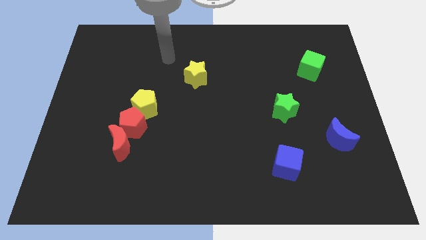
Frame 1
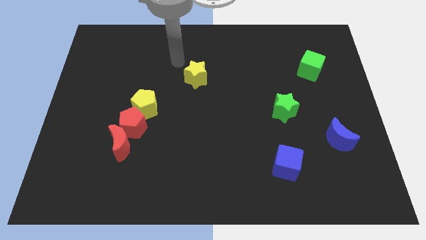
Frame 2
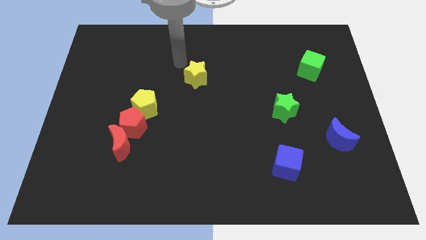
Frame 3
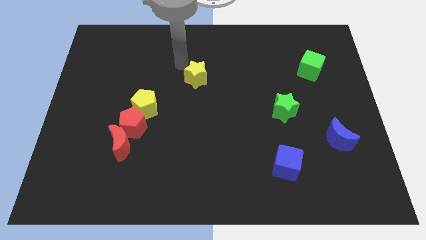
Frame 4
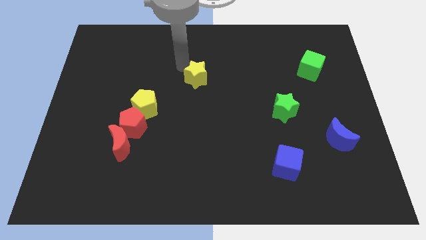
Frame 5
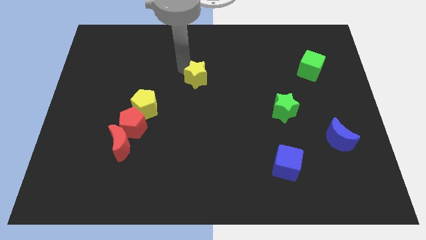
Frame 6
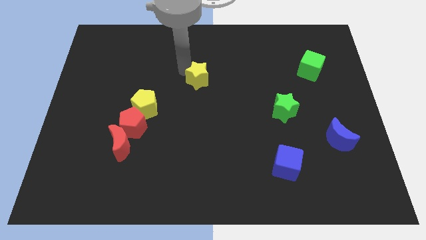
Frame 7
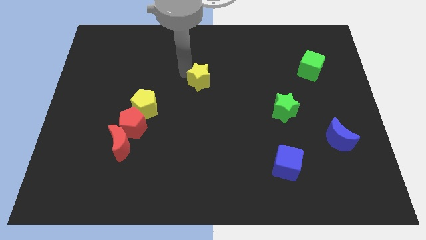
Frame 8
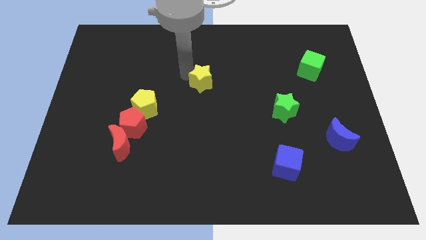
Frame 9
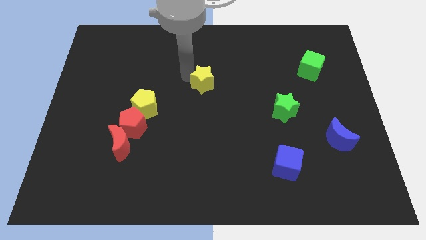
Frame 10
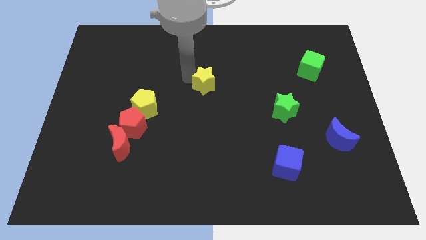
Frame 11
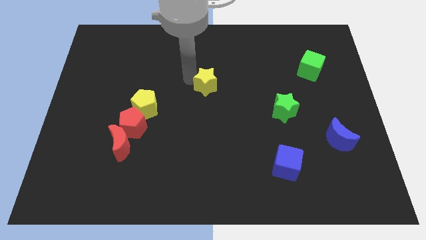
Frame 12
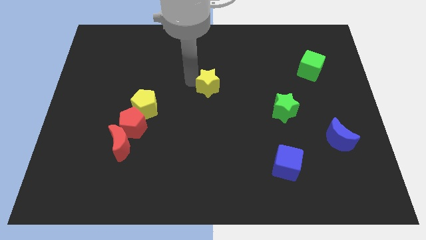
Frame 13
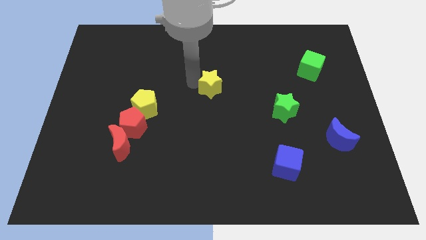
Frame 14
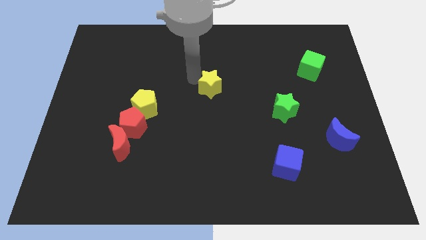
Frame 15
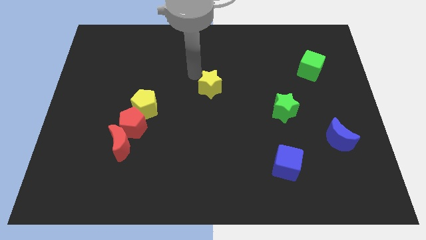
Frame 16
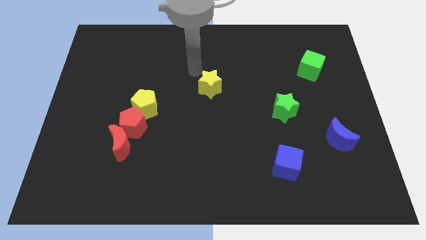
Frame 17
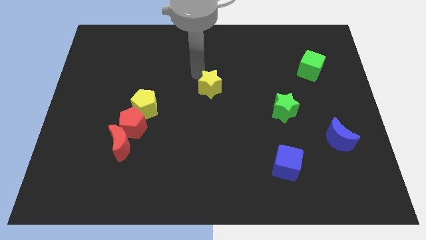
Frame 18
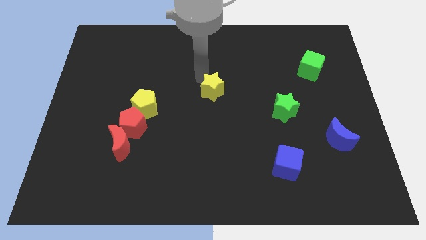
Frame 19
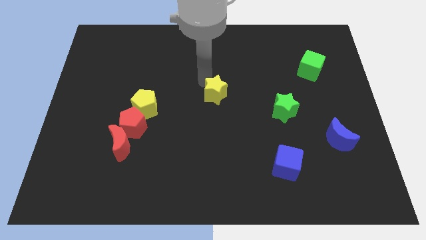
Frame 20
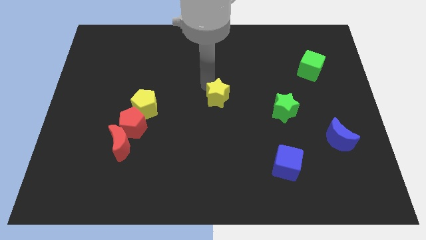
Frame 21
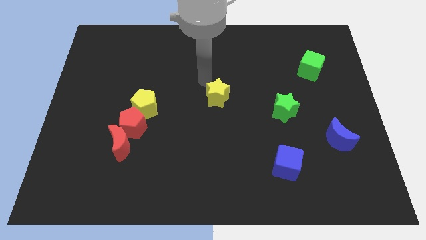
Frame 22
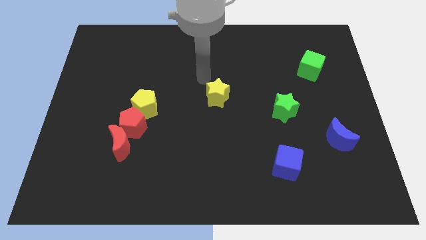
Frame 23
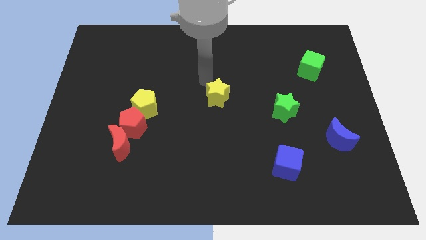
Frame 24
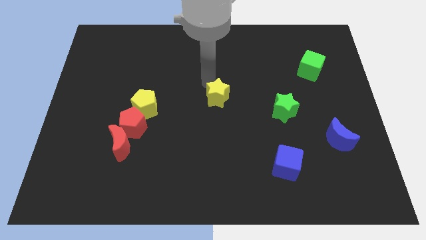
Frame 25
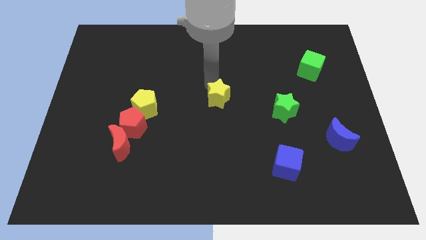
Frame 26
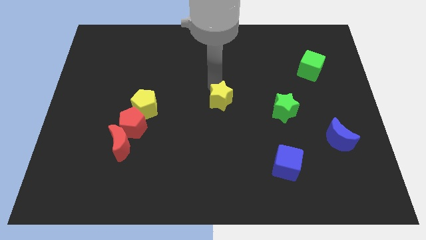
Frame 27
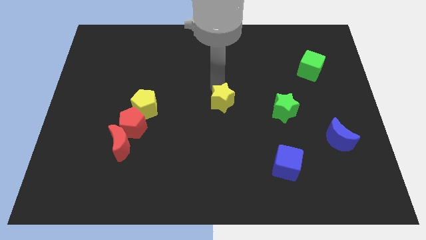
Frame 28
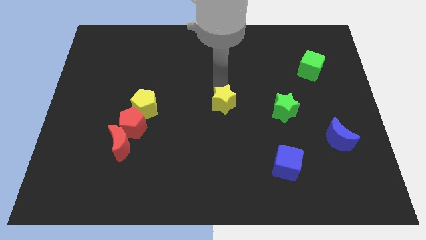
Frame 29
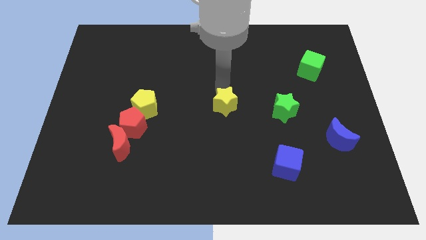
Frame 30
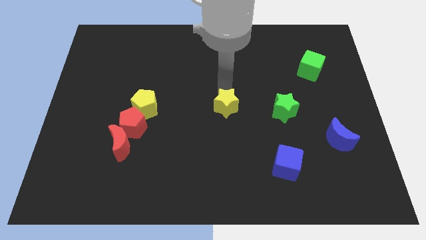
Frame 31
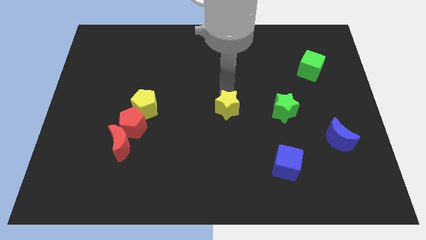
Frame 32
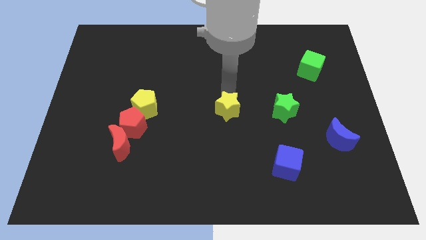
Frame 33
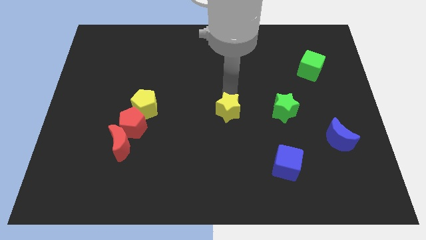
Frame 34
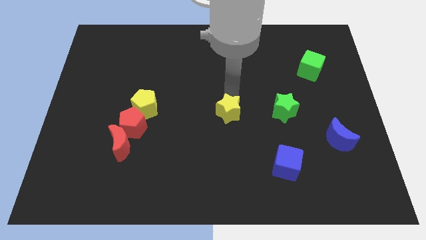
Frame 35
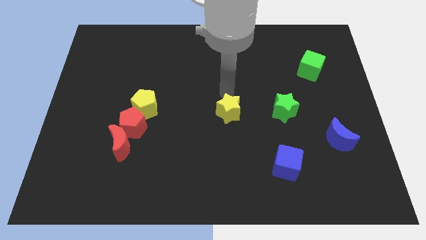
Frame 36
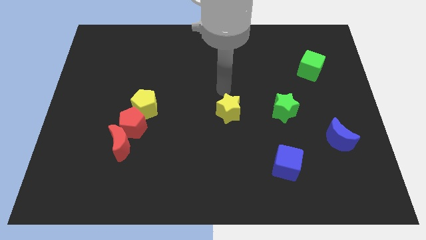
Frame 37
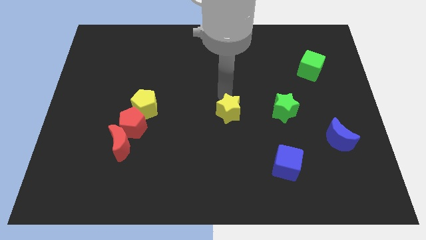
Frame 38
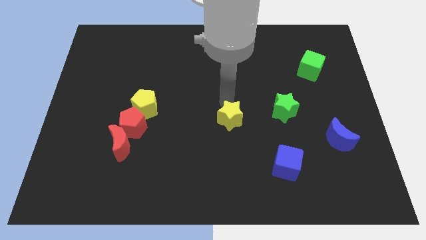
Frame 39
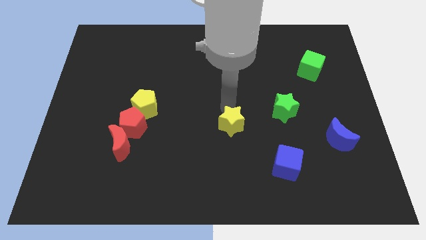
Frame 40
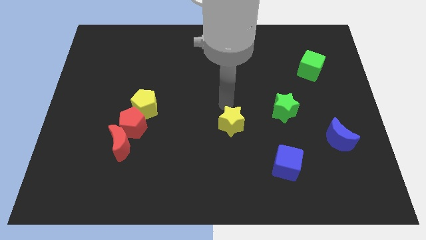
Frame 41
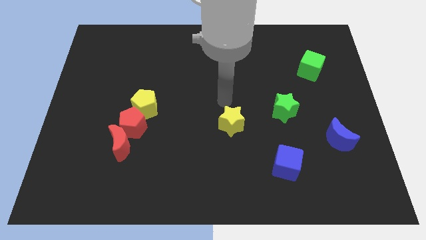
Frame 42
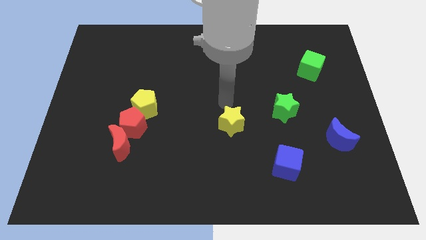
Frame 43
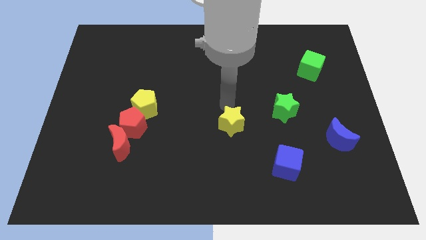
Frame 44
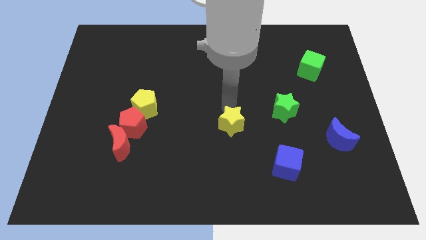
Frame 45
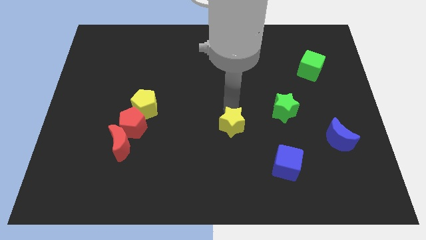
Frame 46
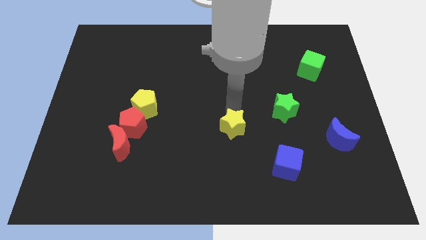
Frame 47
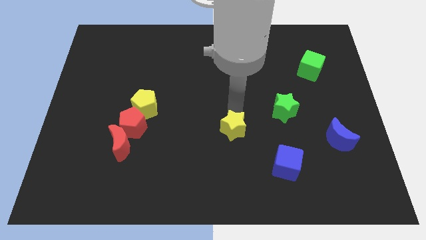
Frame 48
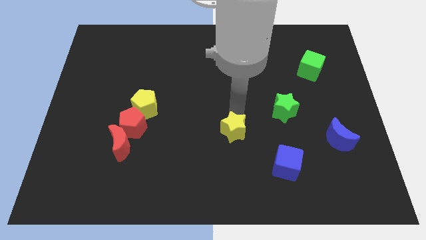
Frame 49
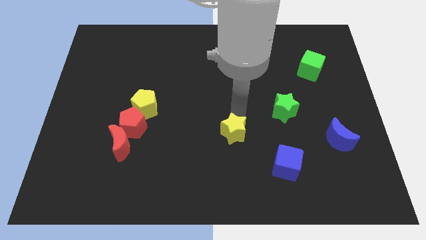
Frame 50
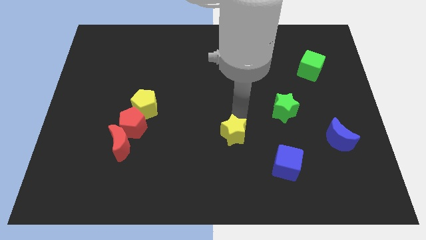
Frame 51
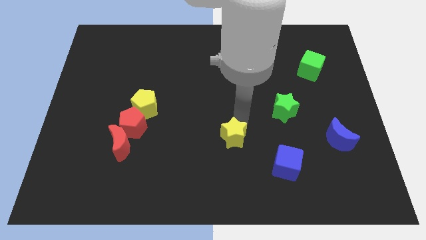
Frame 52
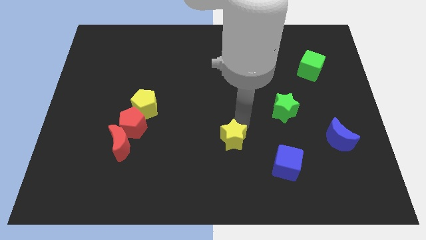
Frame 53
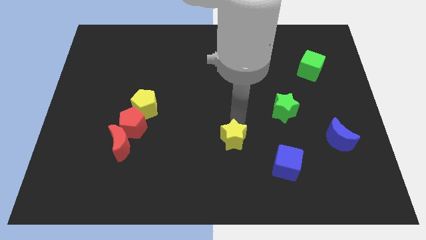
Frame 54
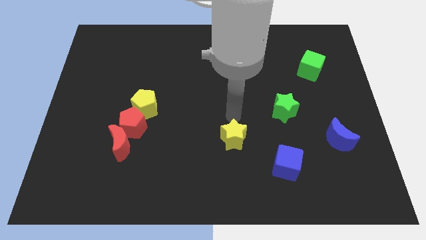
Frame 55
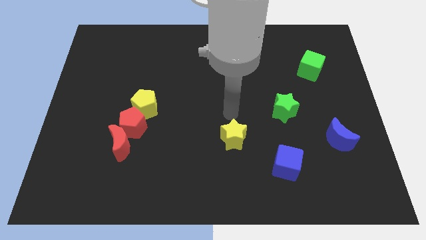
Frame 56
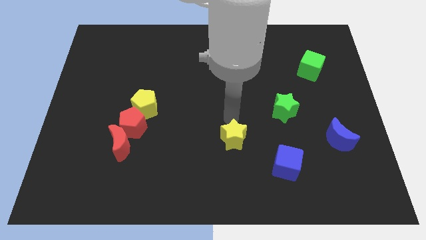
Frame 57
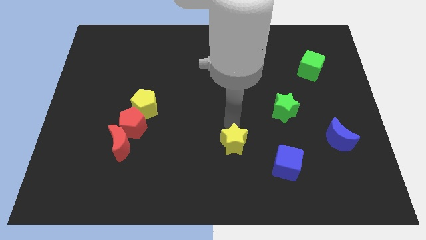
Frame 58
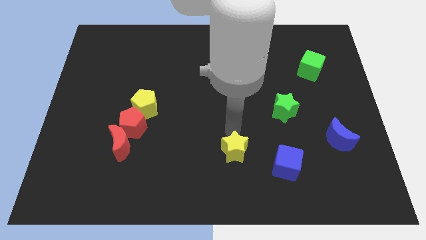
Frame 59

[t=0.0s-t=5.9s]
slide the yellow star just left of the blue cube

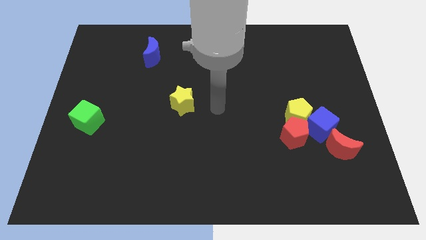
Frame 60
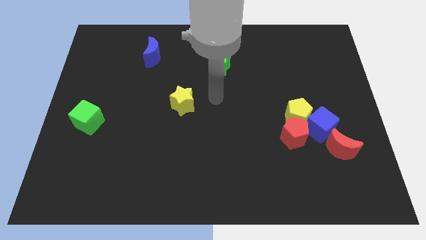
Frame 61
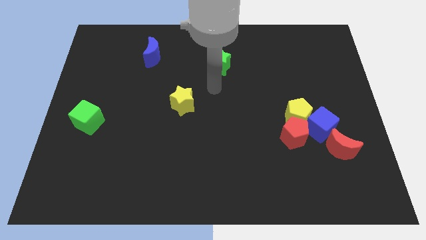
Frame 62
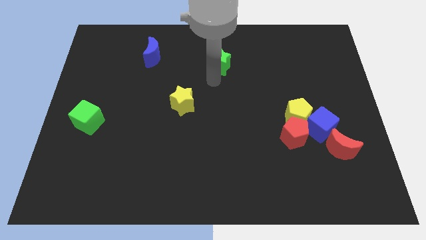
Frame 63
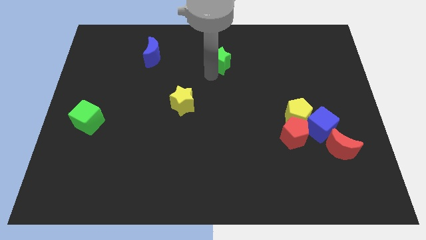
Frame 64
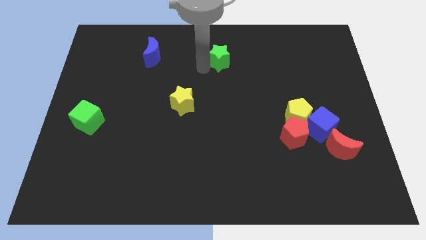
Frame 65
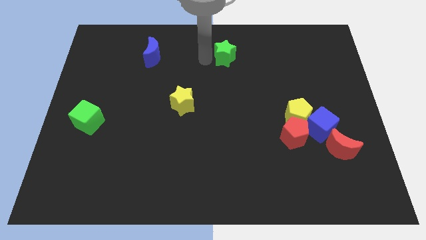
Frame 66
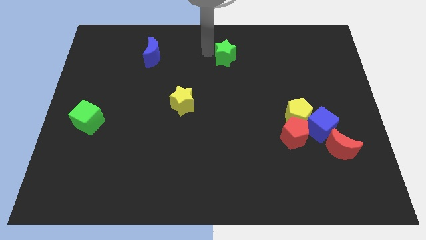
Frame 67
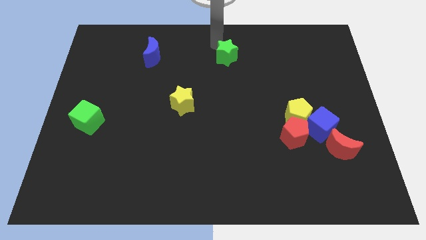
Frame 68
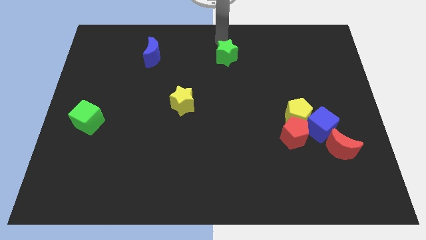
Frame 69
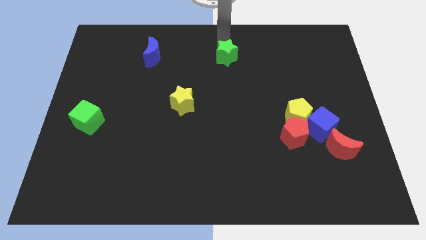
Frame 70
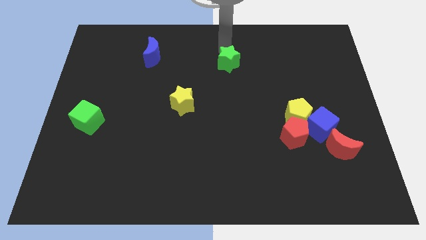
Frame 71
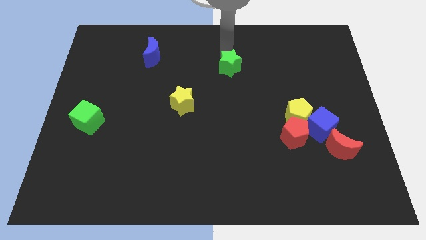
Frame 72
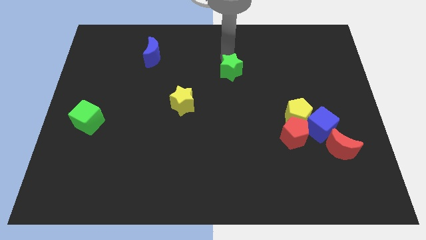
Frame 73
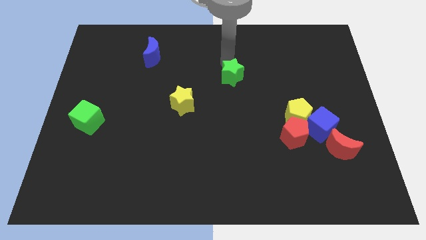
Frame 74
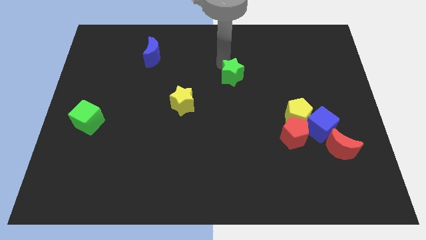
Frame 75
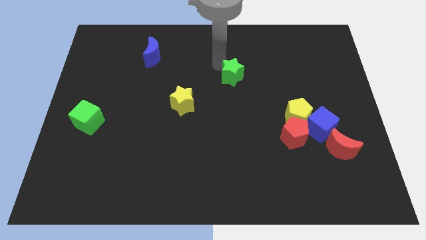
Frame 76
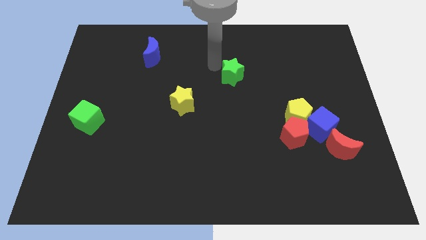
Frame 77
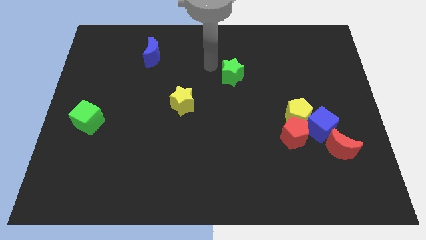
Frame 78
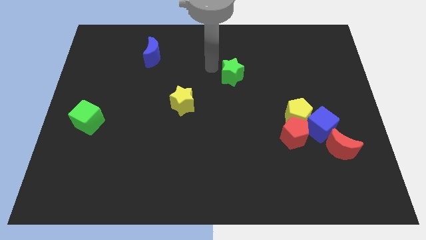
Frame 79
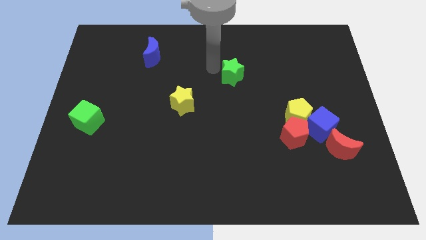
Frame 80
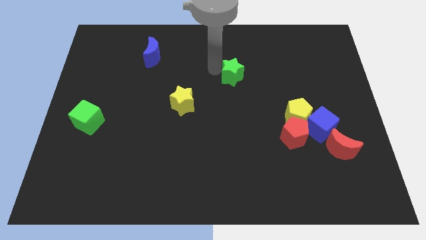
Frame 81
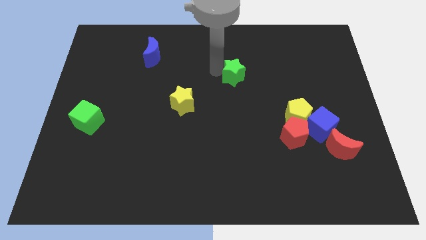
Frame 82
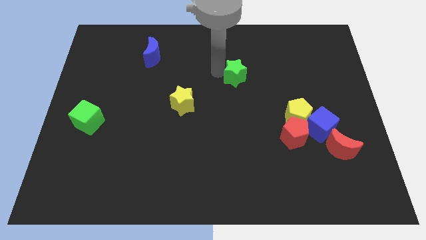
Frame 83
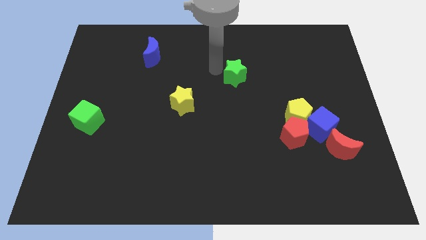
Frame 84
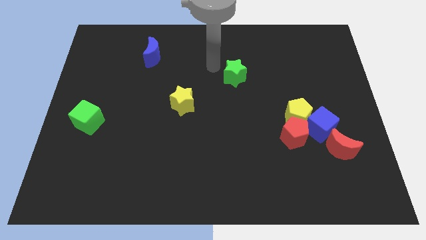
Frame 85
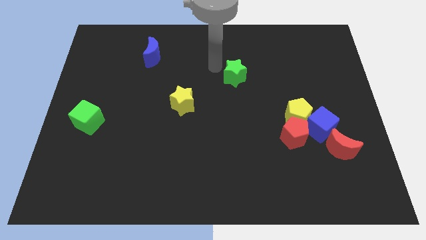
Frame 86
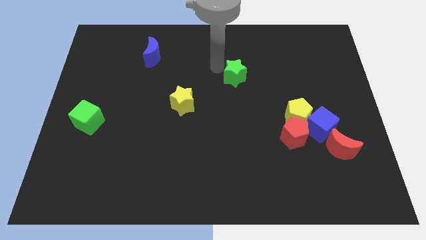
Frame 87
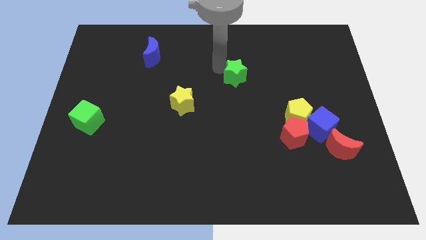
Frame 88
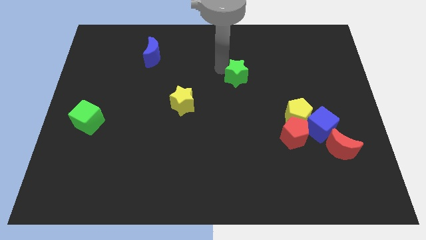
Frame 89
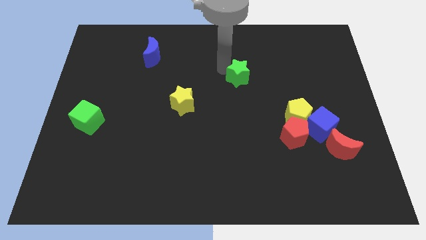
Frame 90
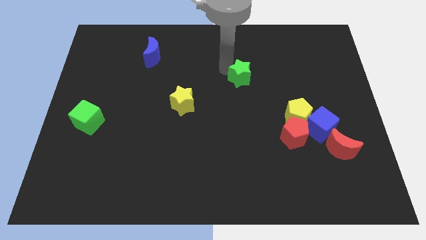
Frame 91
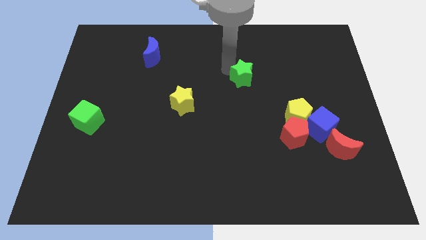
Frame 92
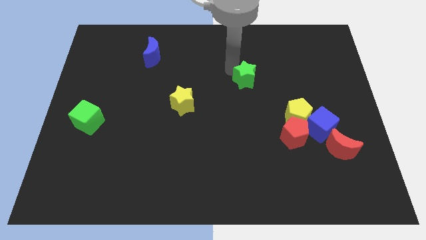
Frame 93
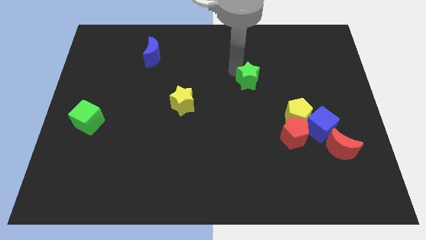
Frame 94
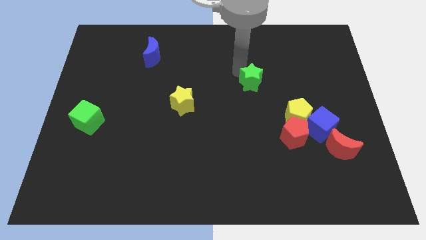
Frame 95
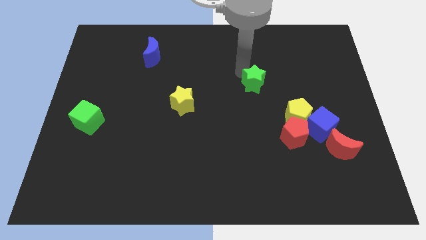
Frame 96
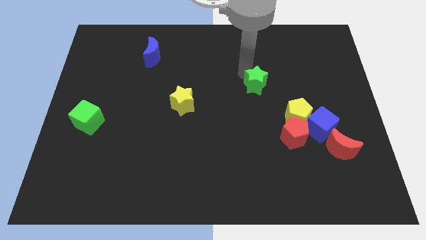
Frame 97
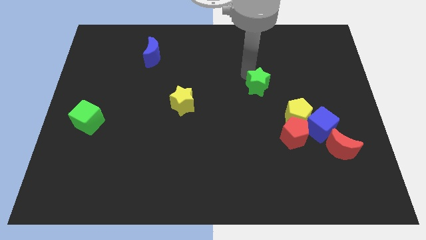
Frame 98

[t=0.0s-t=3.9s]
push the green star to the top left of the yellow pentagon
